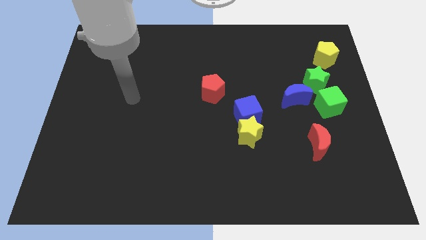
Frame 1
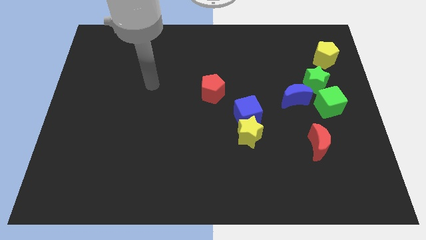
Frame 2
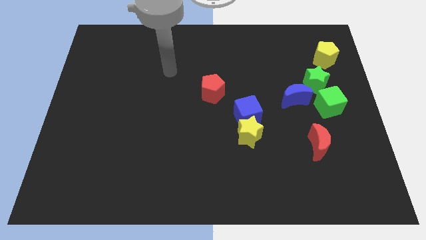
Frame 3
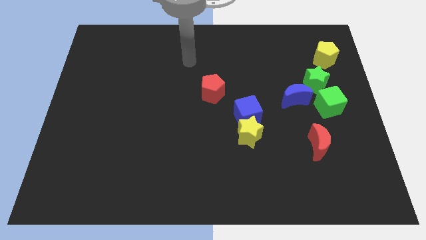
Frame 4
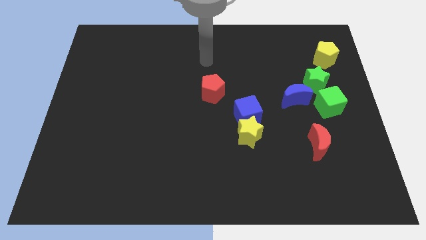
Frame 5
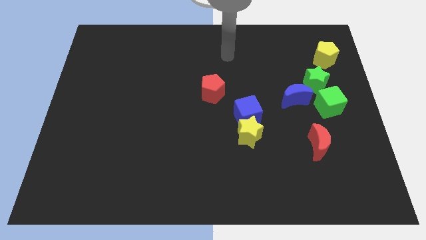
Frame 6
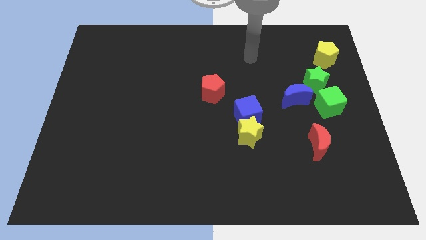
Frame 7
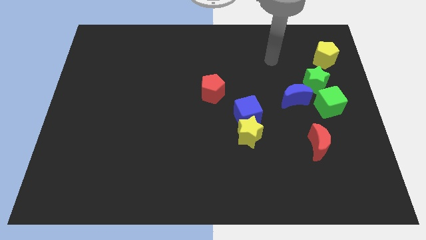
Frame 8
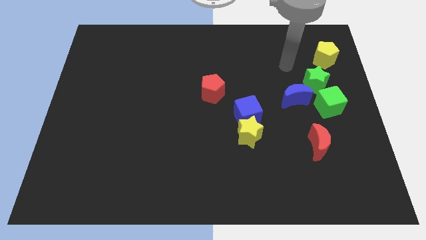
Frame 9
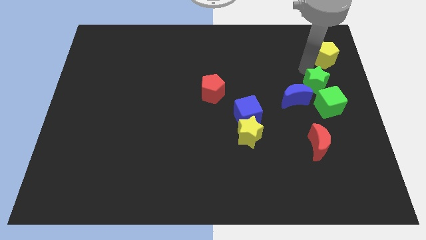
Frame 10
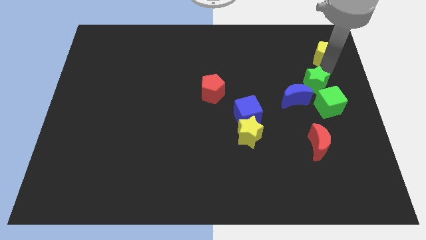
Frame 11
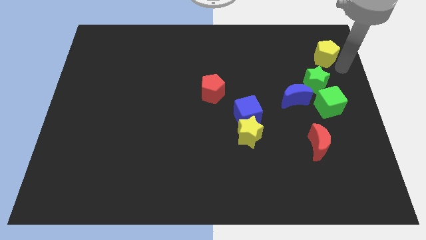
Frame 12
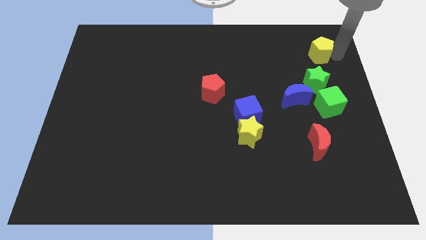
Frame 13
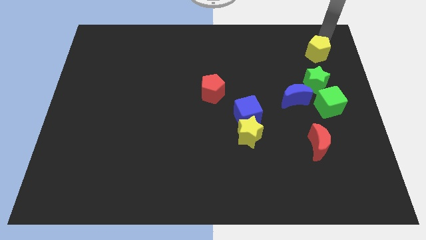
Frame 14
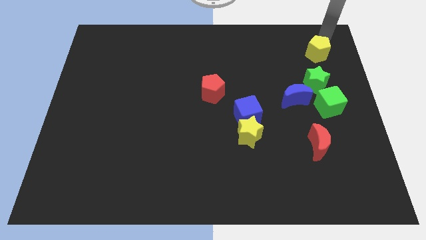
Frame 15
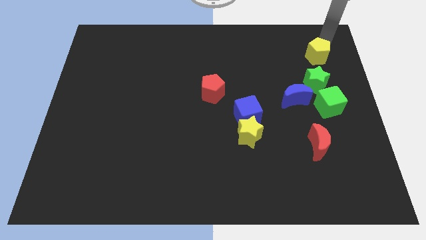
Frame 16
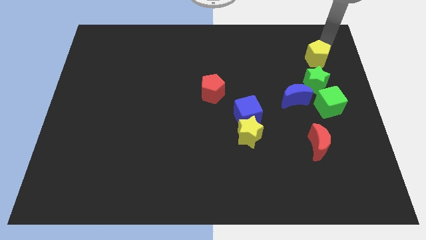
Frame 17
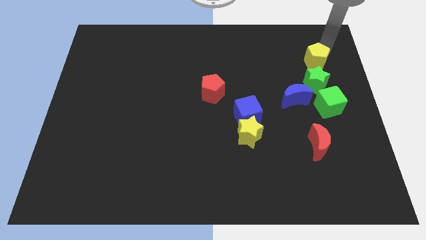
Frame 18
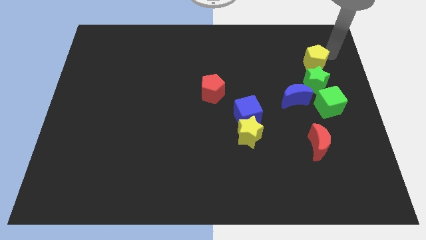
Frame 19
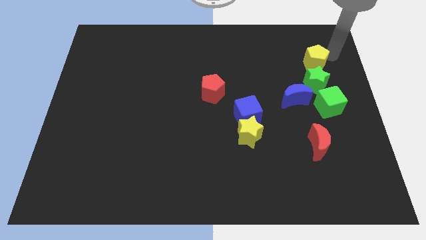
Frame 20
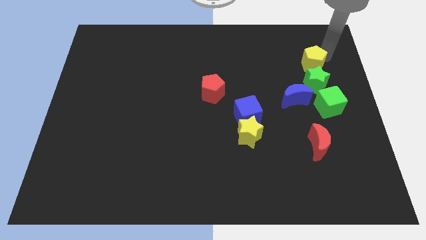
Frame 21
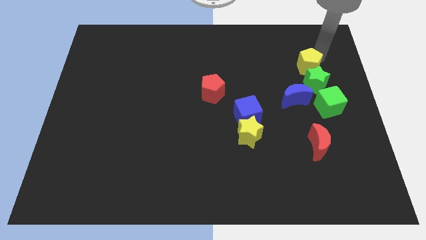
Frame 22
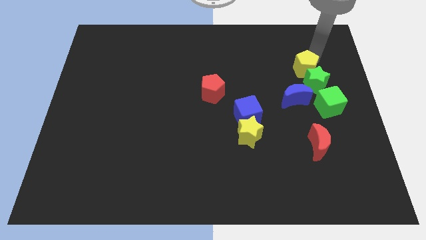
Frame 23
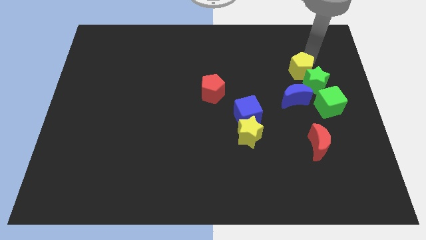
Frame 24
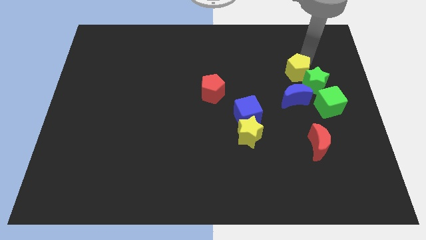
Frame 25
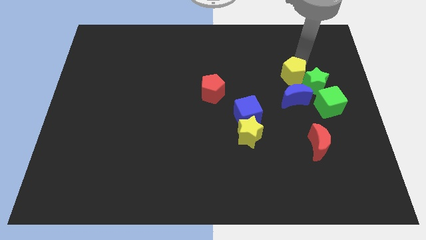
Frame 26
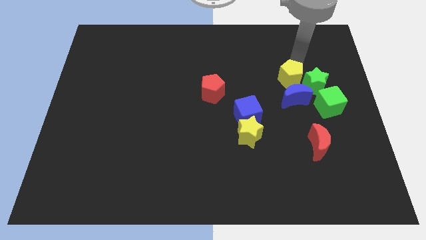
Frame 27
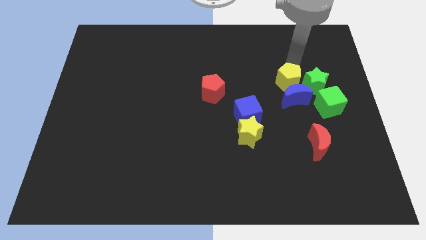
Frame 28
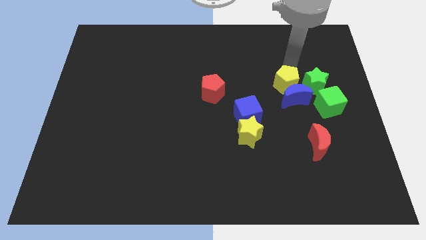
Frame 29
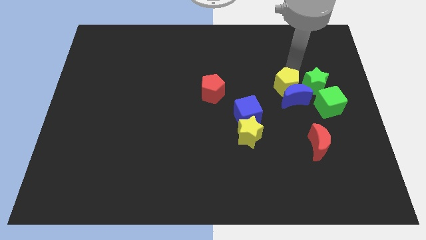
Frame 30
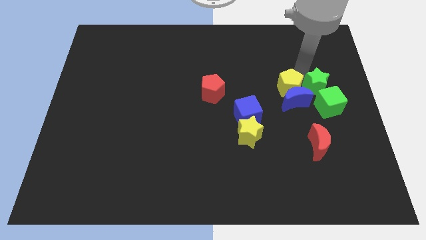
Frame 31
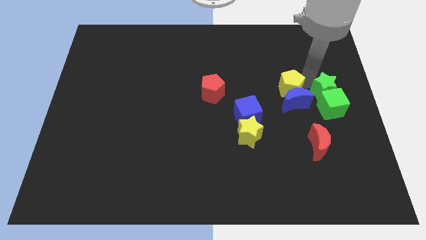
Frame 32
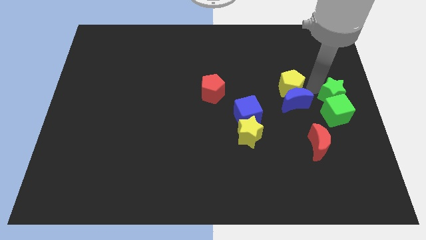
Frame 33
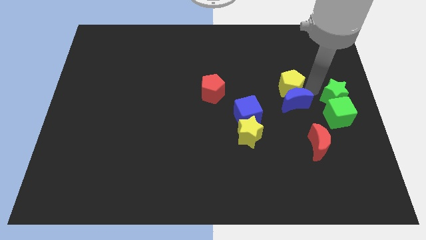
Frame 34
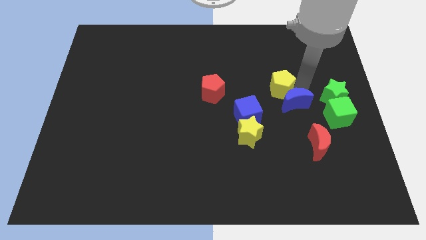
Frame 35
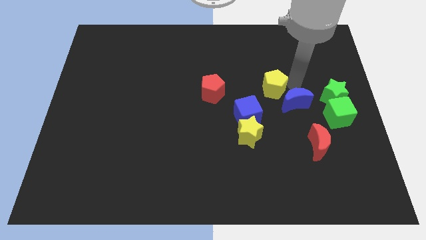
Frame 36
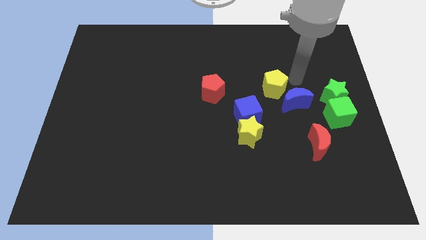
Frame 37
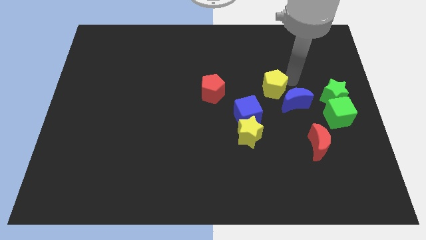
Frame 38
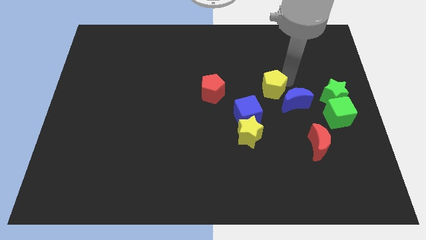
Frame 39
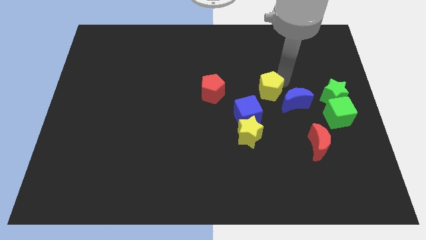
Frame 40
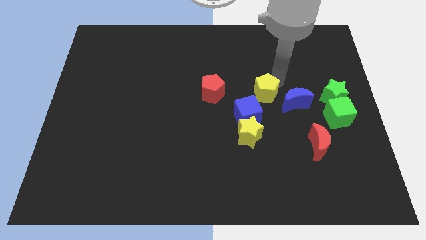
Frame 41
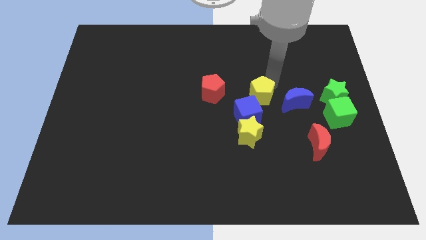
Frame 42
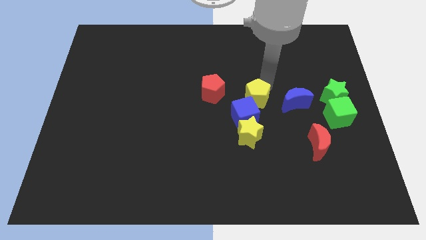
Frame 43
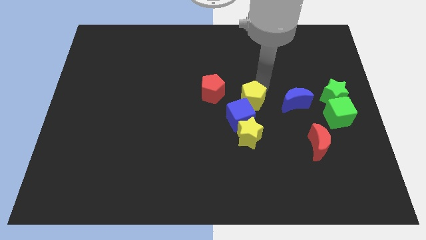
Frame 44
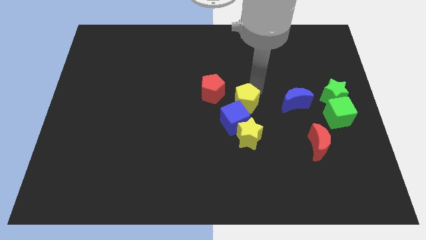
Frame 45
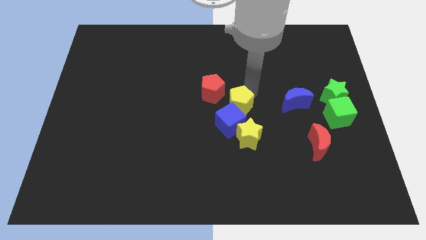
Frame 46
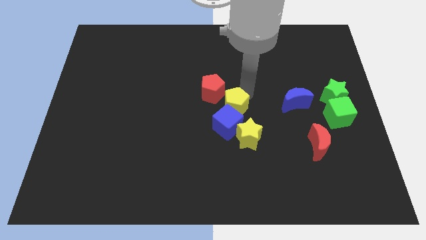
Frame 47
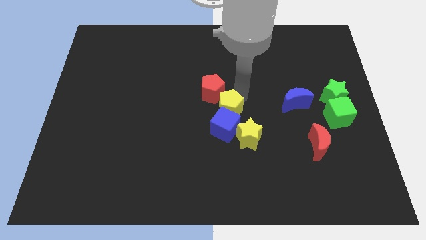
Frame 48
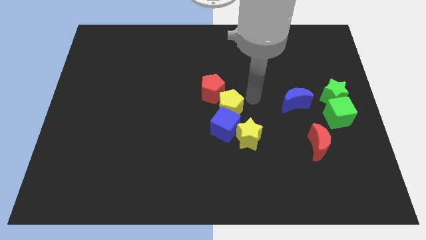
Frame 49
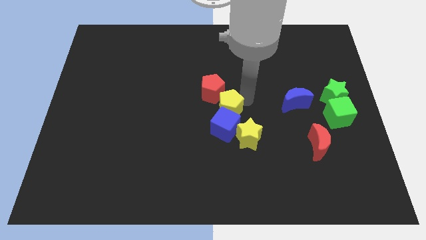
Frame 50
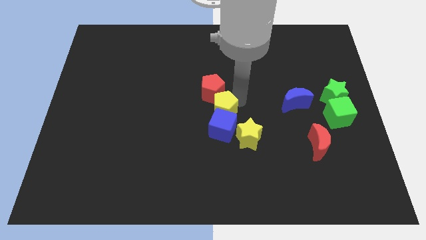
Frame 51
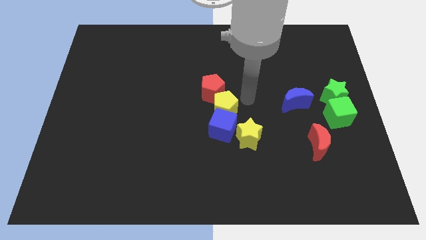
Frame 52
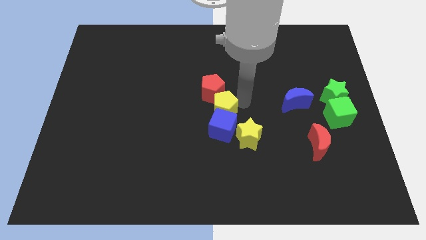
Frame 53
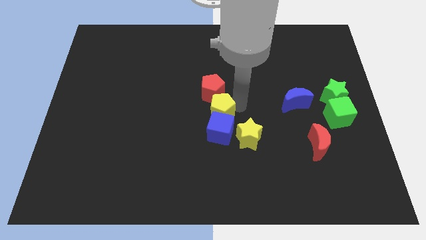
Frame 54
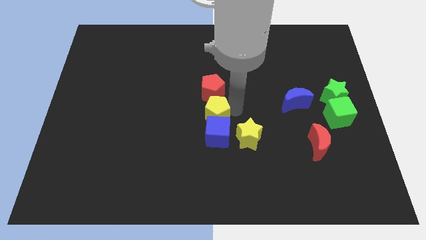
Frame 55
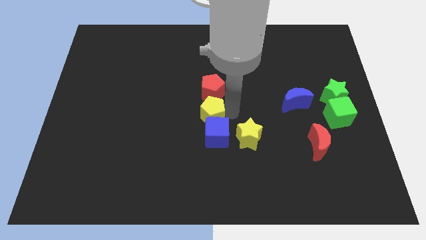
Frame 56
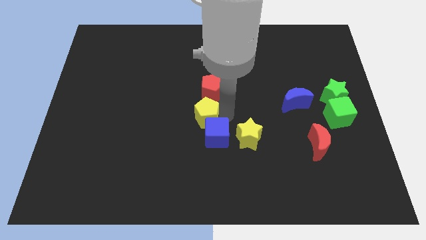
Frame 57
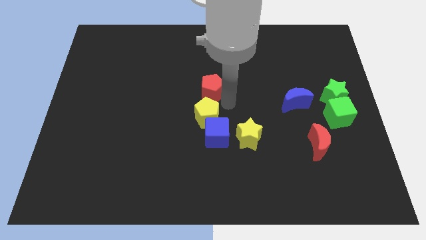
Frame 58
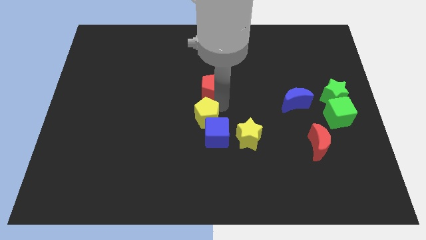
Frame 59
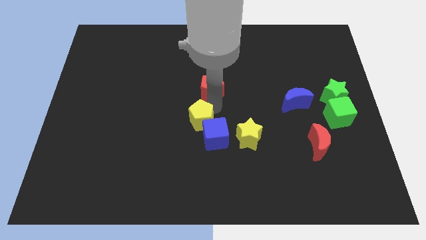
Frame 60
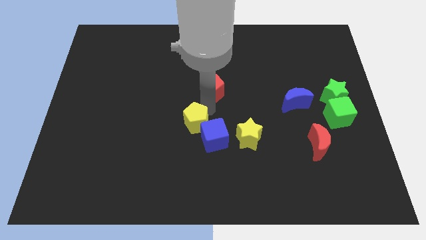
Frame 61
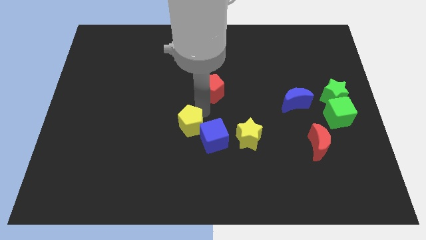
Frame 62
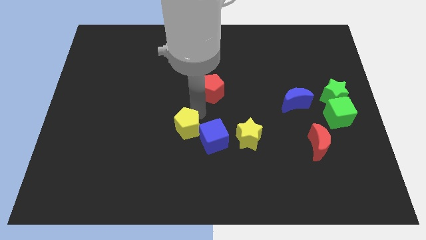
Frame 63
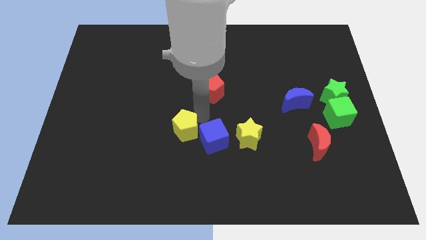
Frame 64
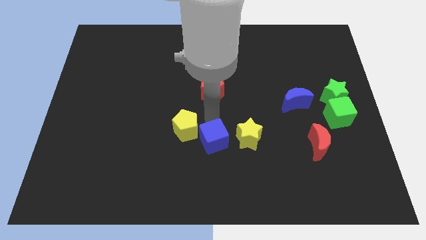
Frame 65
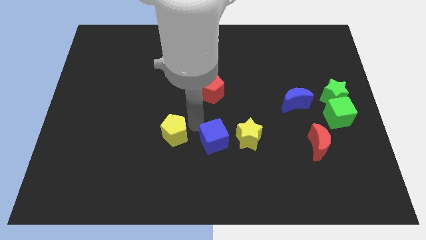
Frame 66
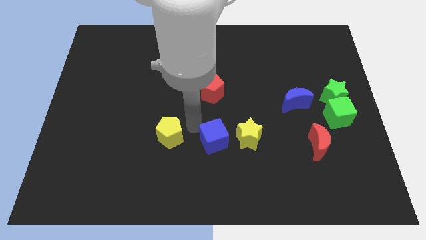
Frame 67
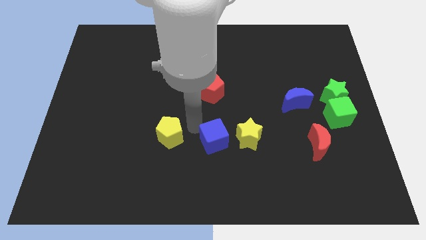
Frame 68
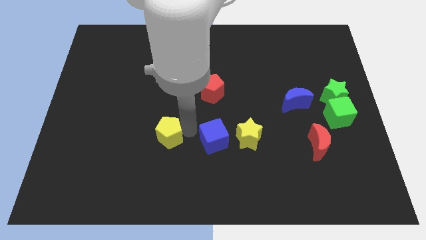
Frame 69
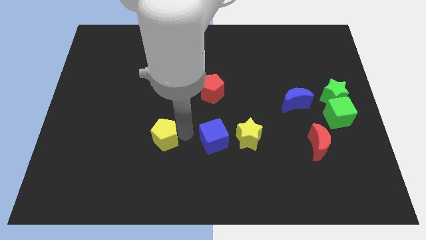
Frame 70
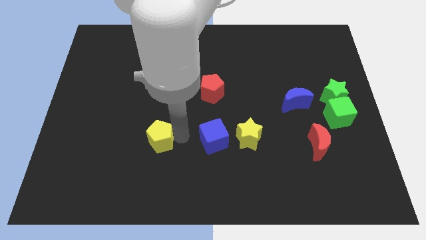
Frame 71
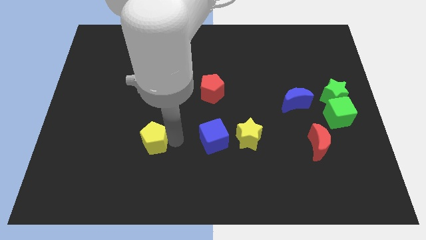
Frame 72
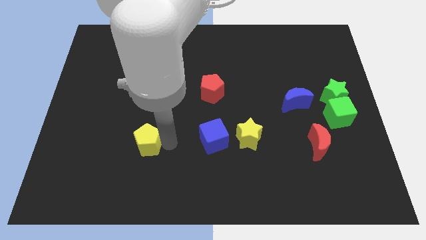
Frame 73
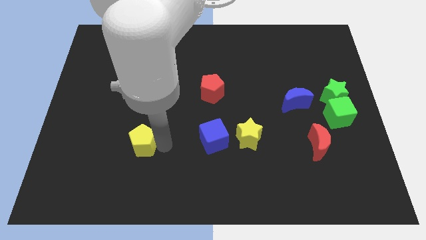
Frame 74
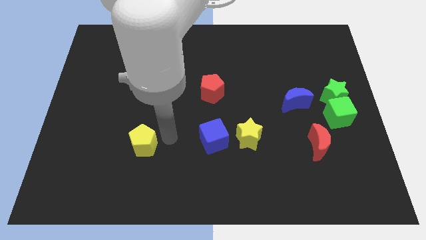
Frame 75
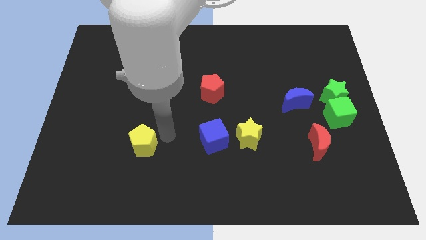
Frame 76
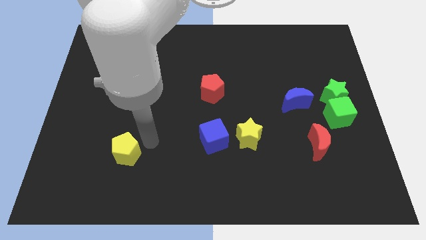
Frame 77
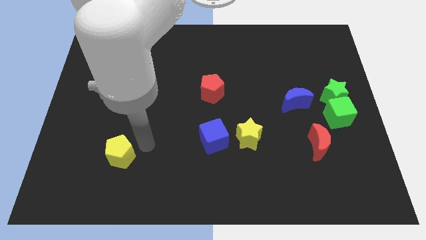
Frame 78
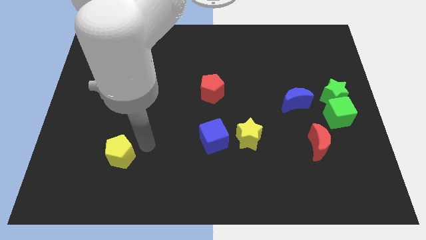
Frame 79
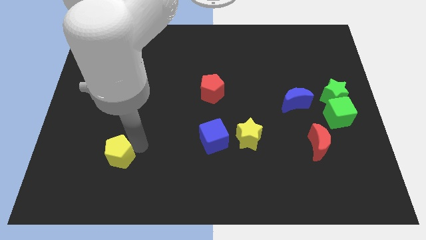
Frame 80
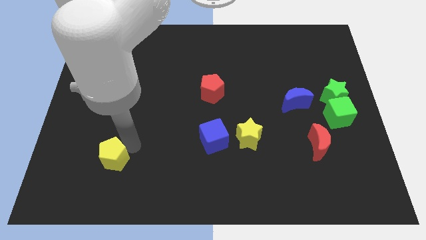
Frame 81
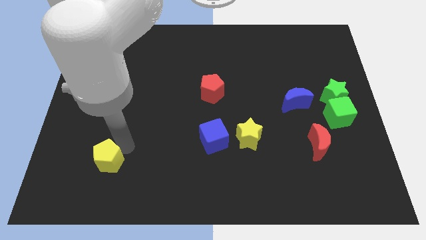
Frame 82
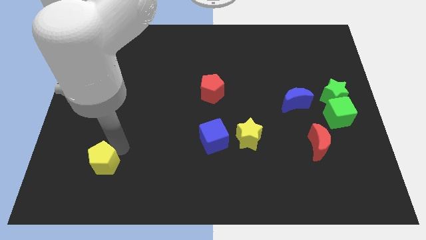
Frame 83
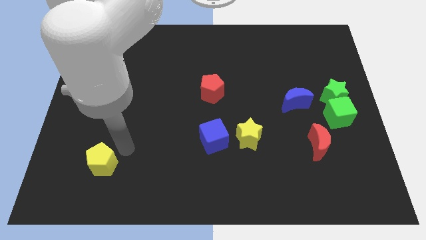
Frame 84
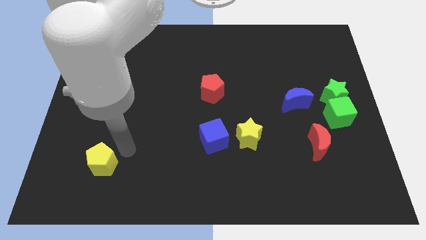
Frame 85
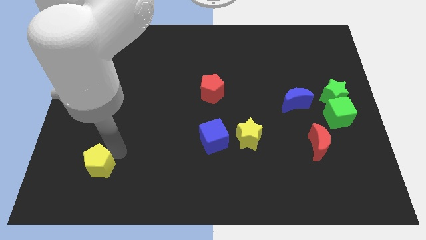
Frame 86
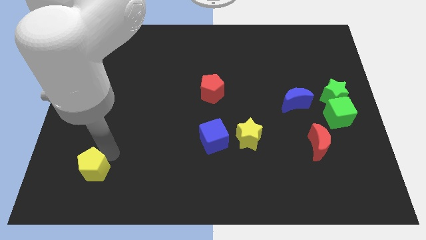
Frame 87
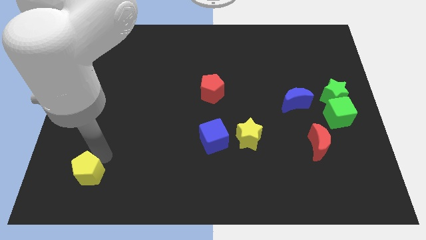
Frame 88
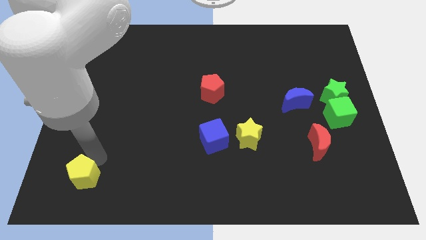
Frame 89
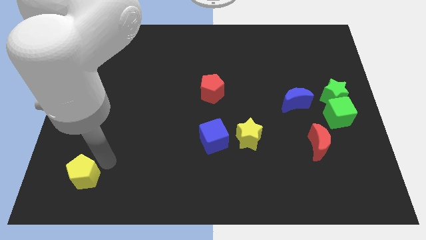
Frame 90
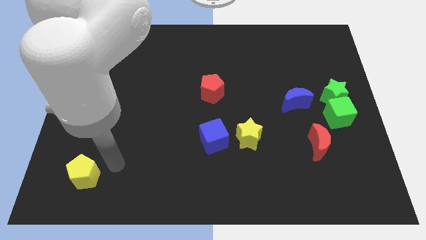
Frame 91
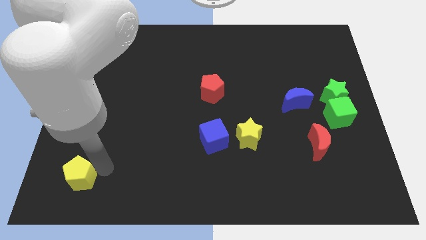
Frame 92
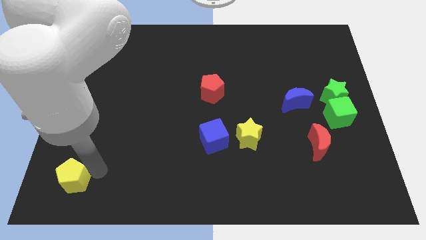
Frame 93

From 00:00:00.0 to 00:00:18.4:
put the yellow pentagon to the lower left corner
